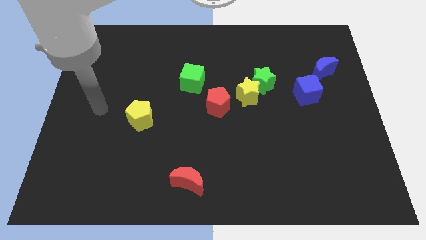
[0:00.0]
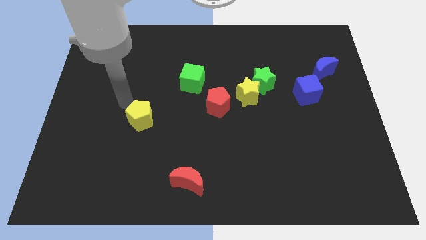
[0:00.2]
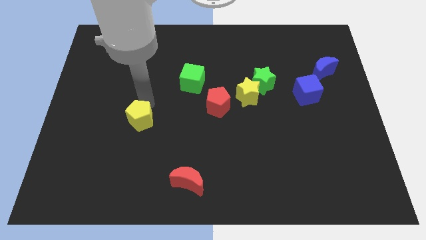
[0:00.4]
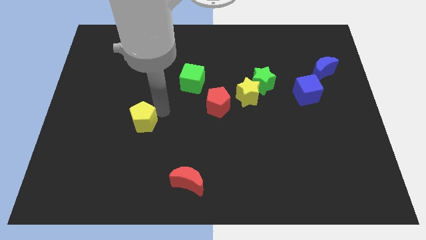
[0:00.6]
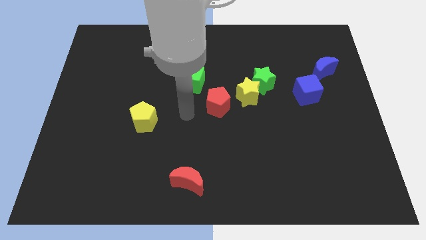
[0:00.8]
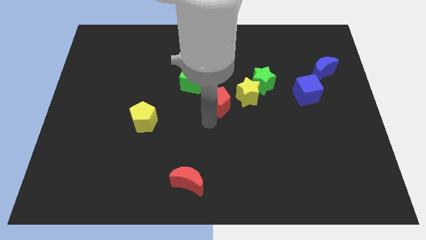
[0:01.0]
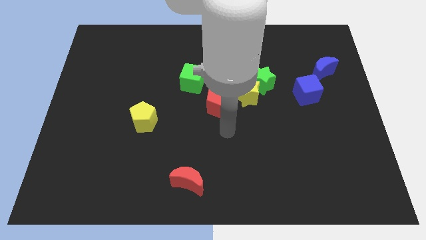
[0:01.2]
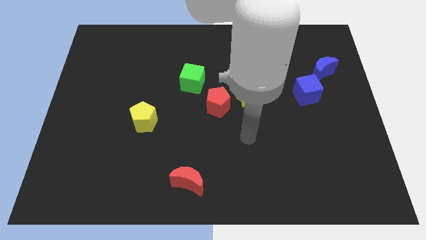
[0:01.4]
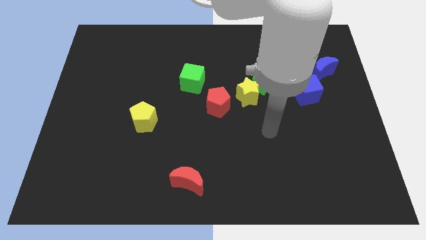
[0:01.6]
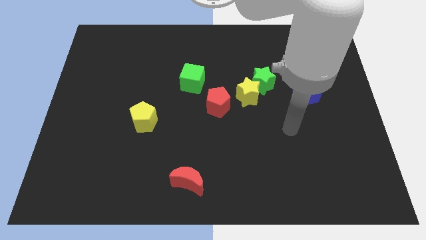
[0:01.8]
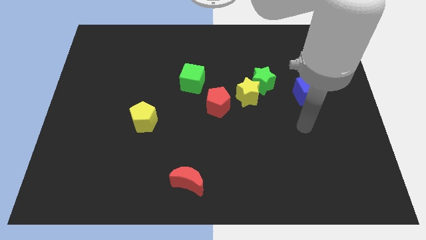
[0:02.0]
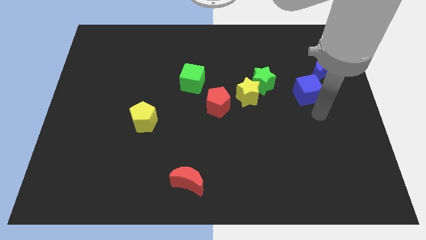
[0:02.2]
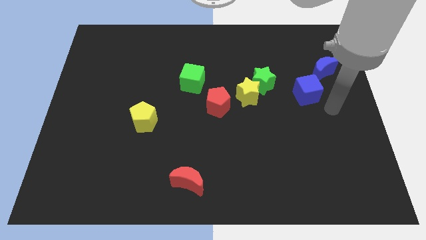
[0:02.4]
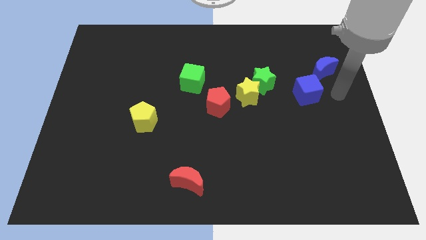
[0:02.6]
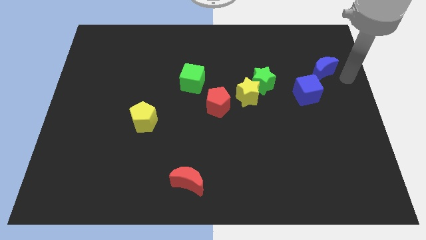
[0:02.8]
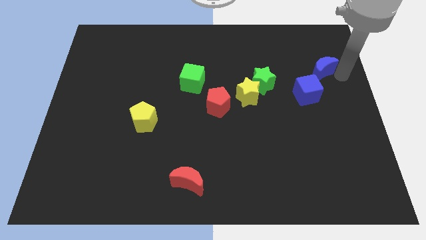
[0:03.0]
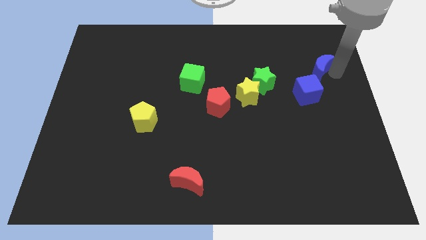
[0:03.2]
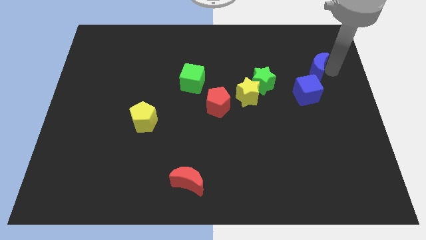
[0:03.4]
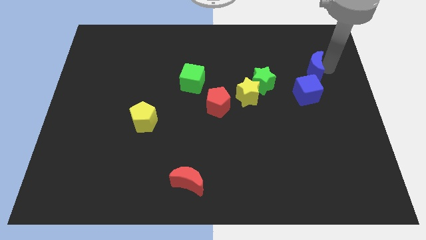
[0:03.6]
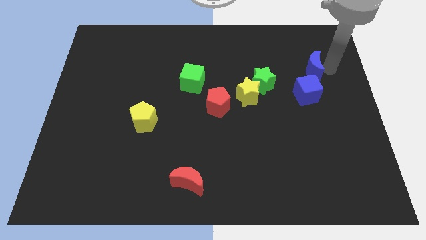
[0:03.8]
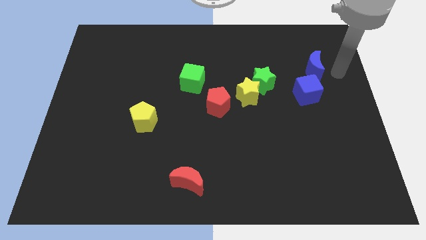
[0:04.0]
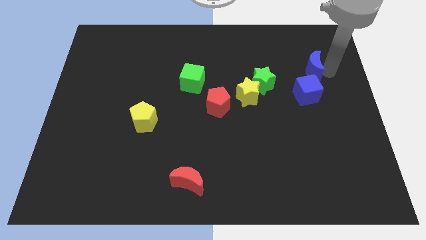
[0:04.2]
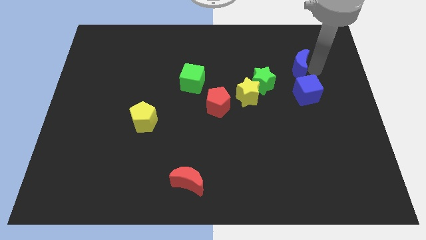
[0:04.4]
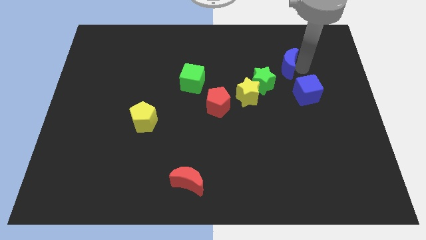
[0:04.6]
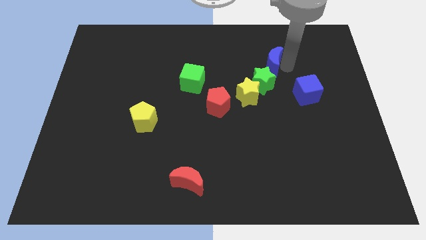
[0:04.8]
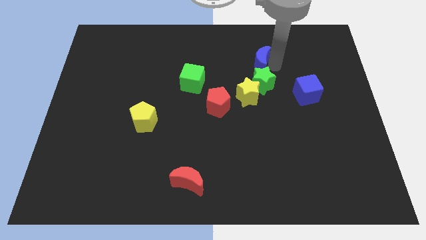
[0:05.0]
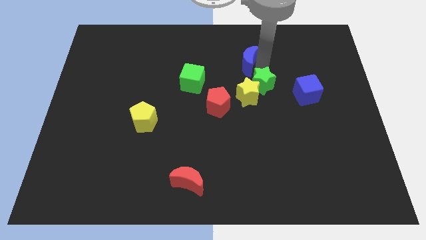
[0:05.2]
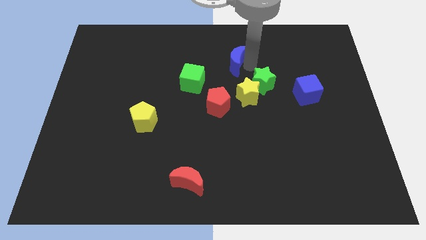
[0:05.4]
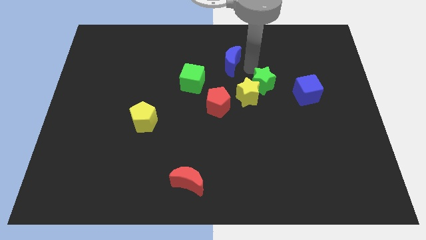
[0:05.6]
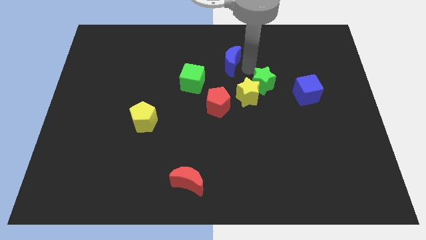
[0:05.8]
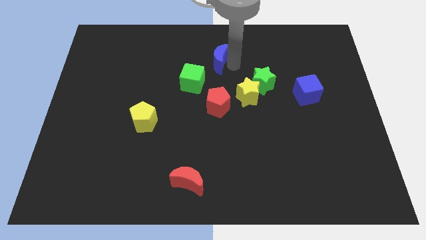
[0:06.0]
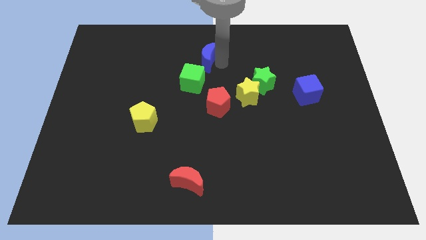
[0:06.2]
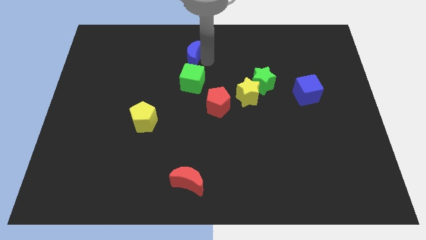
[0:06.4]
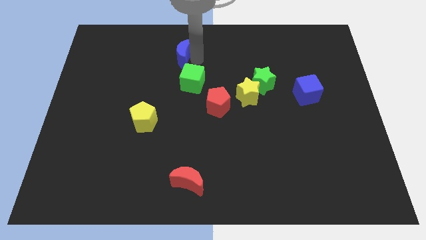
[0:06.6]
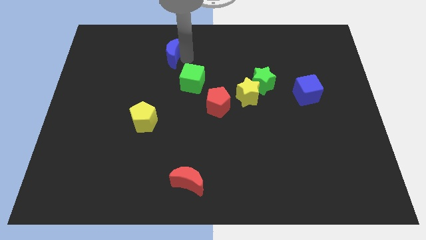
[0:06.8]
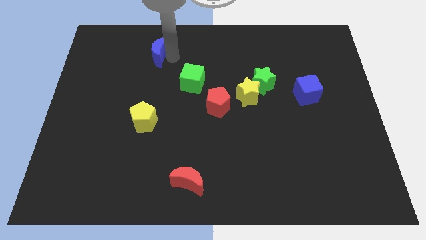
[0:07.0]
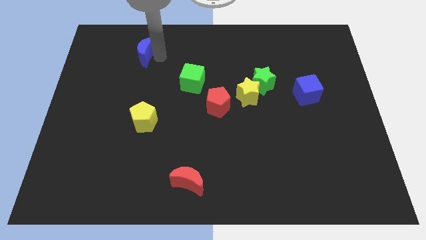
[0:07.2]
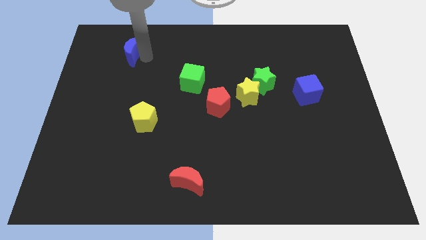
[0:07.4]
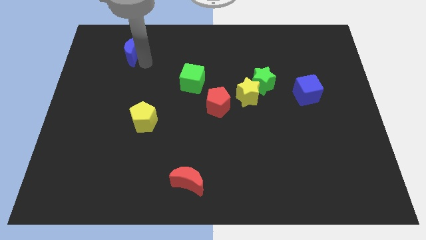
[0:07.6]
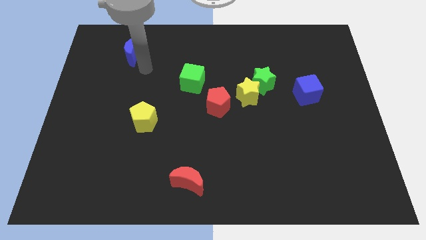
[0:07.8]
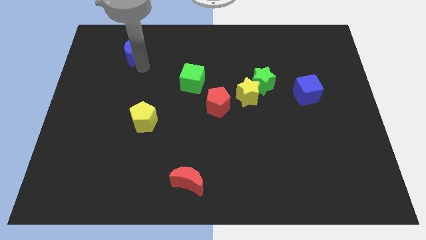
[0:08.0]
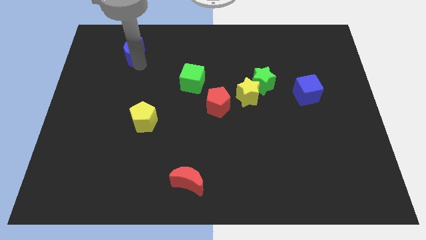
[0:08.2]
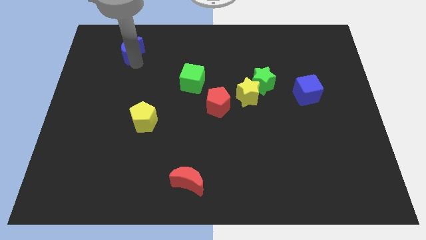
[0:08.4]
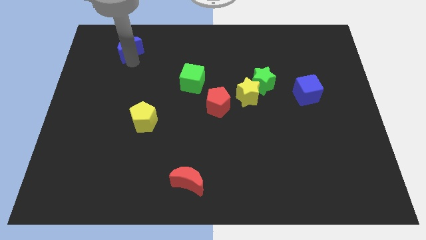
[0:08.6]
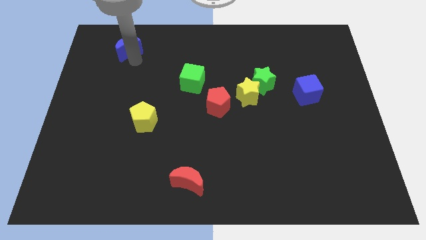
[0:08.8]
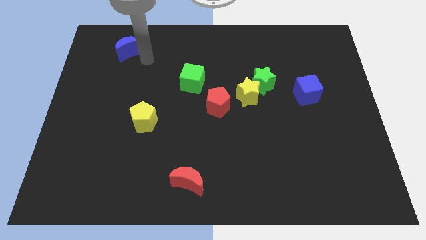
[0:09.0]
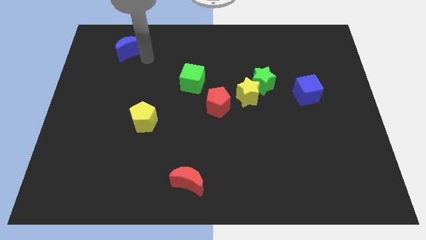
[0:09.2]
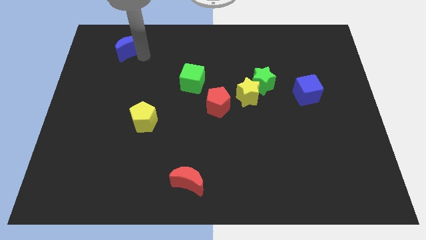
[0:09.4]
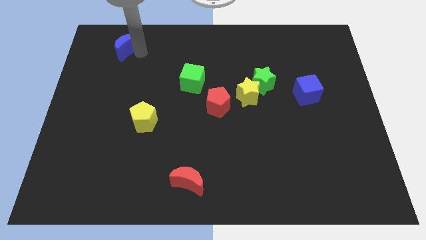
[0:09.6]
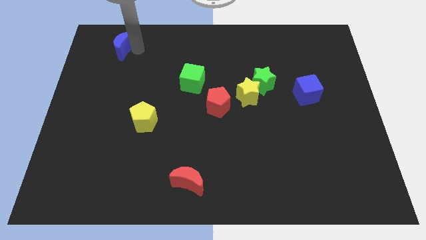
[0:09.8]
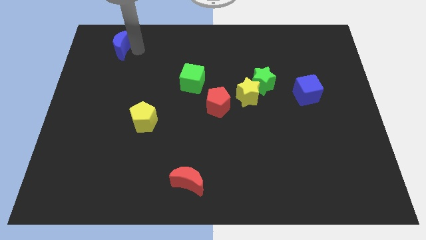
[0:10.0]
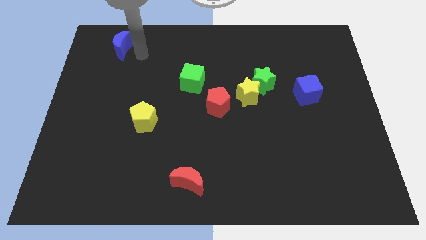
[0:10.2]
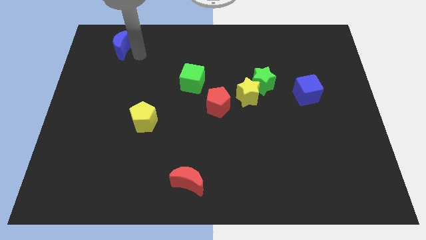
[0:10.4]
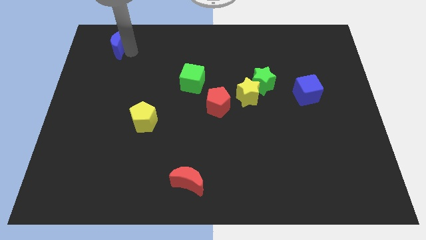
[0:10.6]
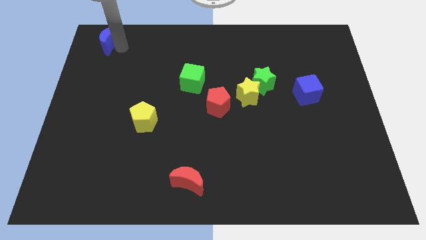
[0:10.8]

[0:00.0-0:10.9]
slide the blue moon to the top left of the board
